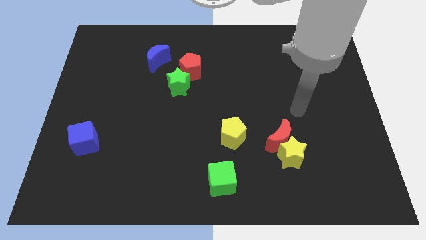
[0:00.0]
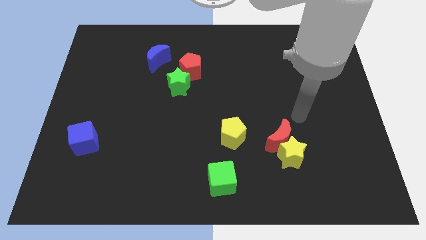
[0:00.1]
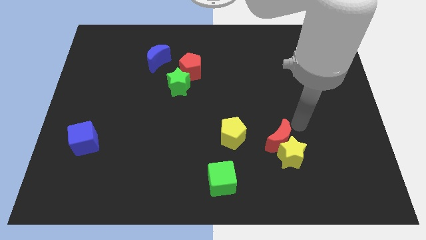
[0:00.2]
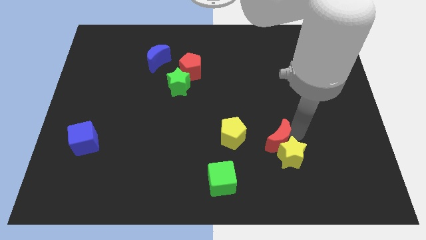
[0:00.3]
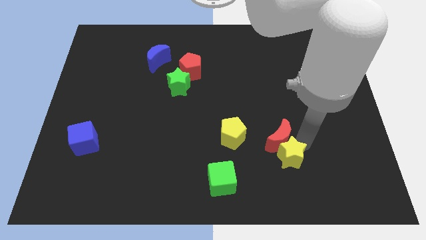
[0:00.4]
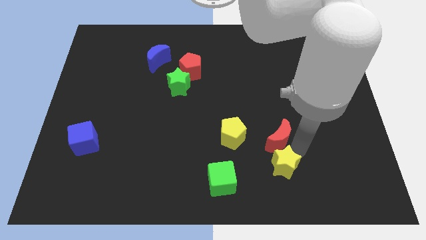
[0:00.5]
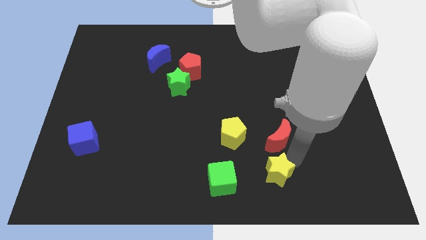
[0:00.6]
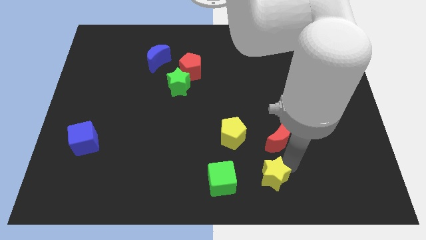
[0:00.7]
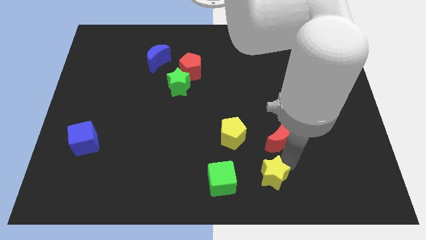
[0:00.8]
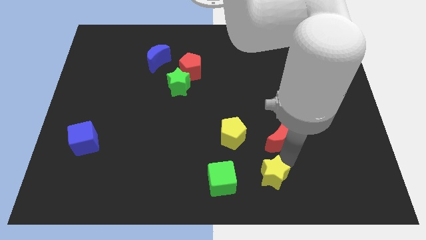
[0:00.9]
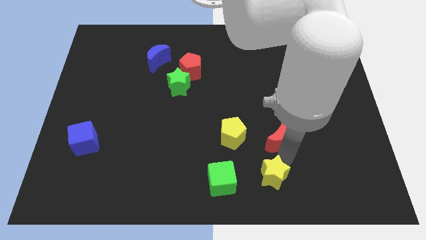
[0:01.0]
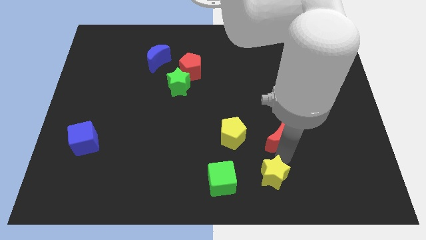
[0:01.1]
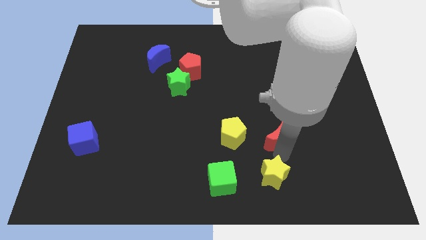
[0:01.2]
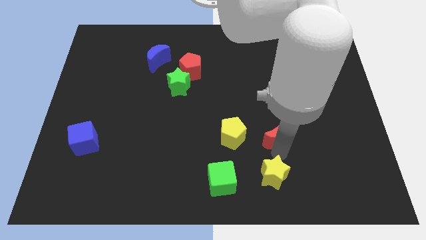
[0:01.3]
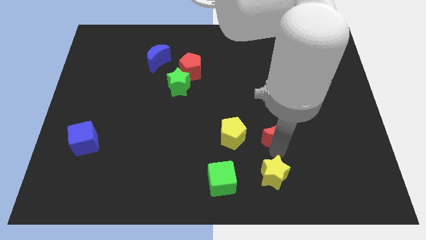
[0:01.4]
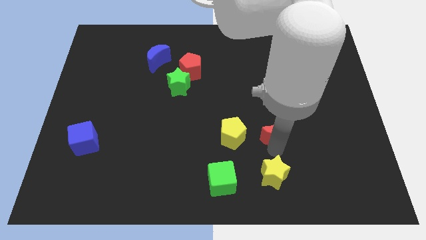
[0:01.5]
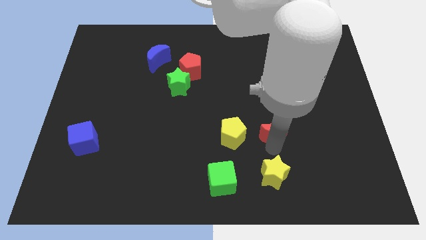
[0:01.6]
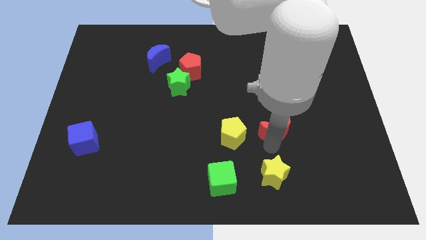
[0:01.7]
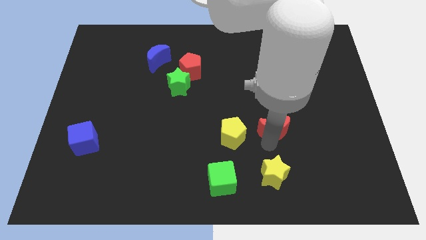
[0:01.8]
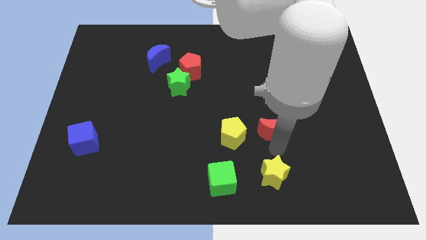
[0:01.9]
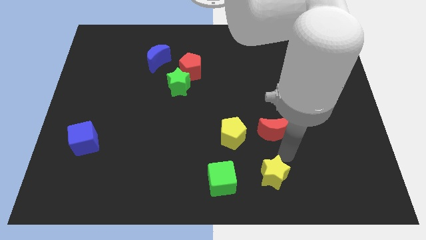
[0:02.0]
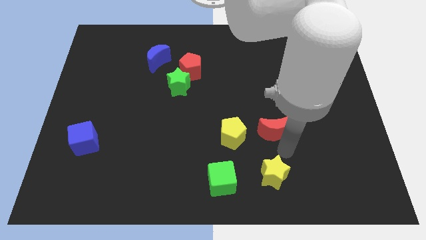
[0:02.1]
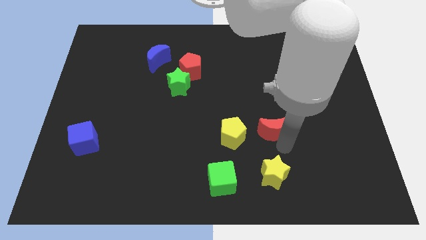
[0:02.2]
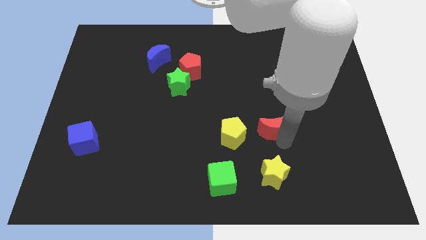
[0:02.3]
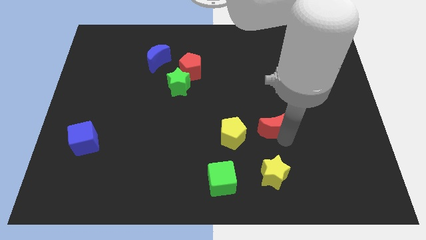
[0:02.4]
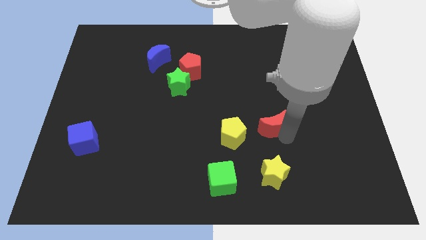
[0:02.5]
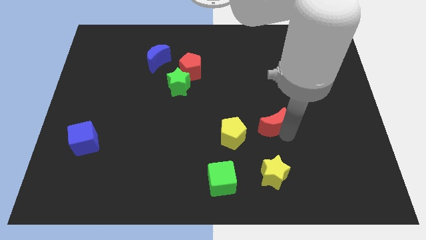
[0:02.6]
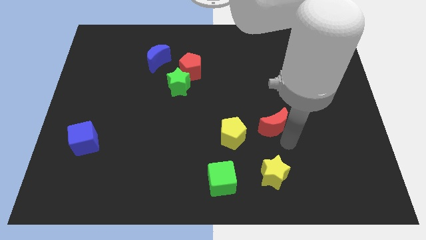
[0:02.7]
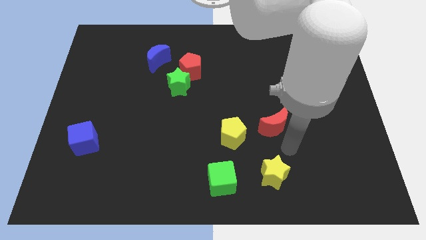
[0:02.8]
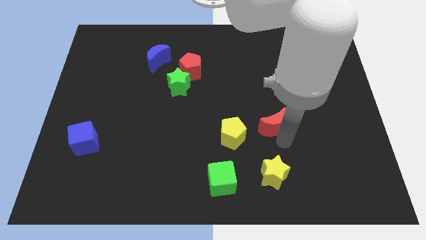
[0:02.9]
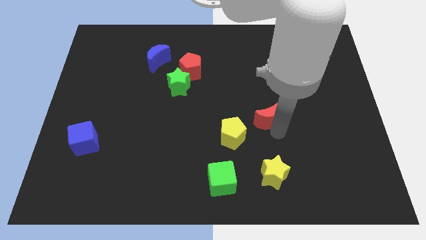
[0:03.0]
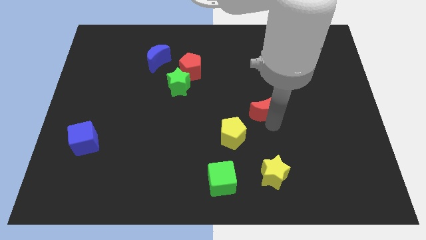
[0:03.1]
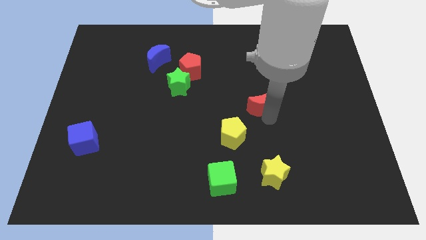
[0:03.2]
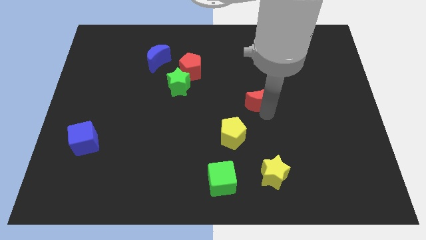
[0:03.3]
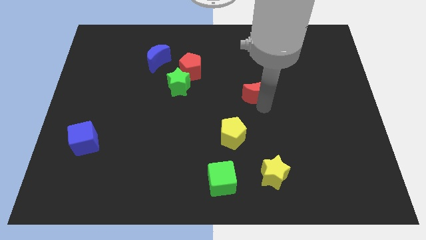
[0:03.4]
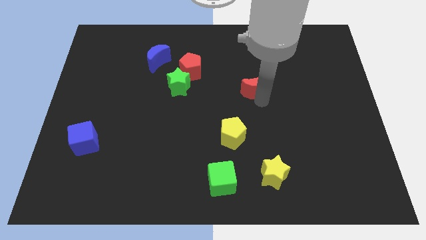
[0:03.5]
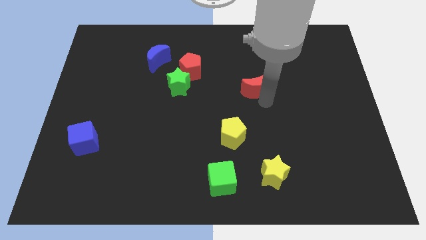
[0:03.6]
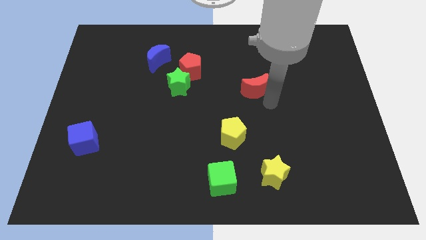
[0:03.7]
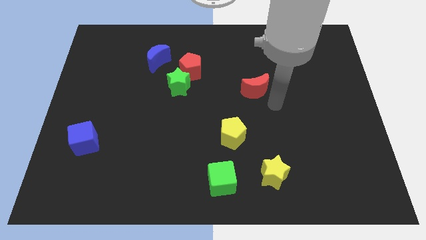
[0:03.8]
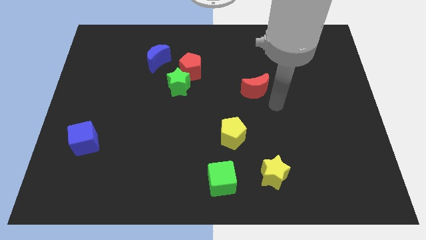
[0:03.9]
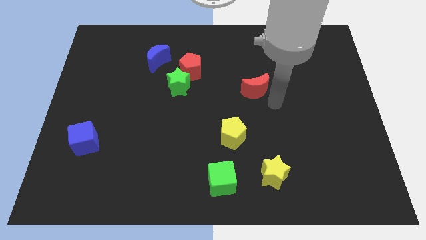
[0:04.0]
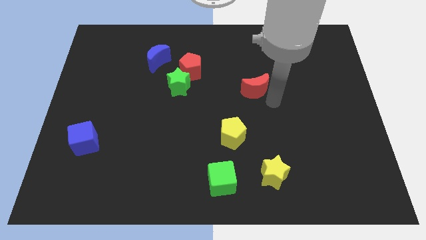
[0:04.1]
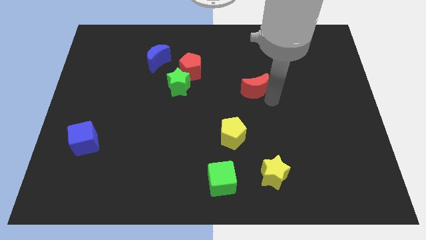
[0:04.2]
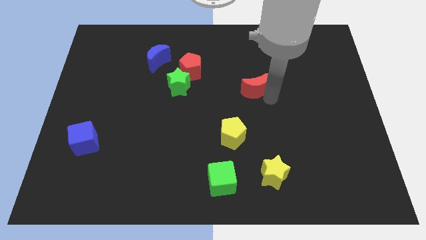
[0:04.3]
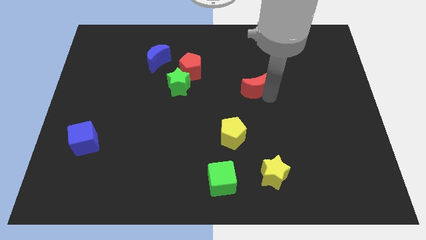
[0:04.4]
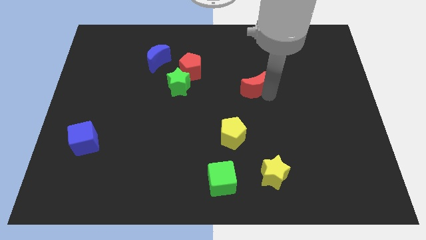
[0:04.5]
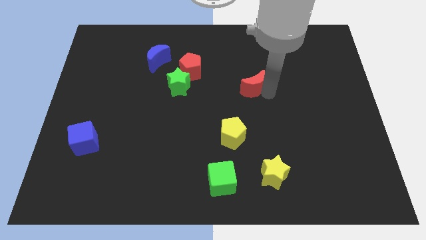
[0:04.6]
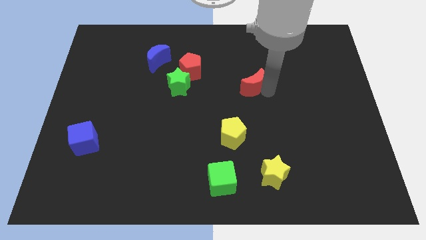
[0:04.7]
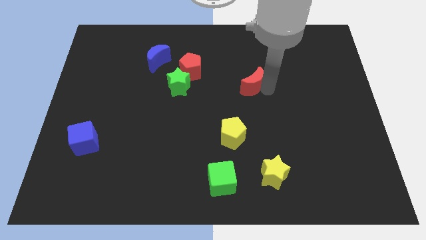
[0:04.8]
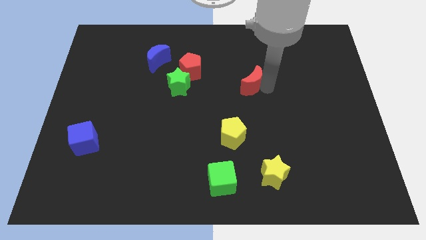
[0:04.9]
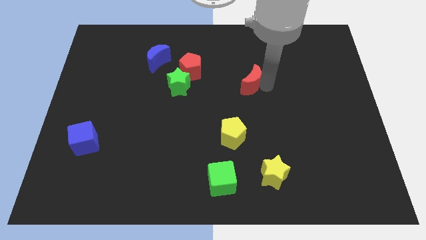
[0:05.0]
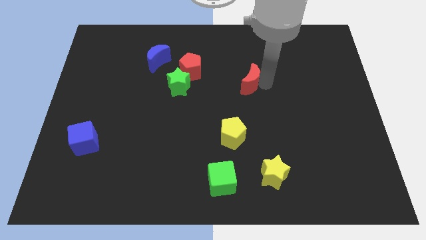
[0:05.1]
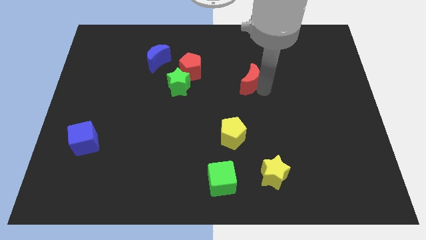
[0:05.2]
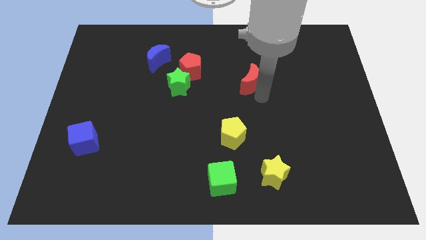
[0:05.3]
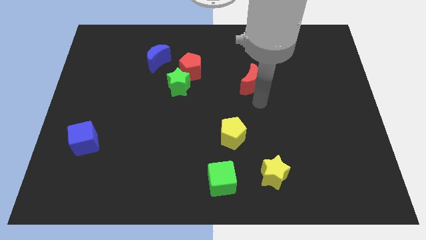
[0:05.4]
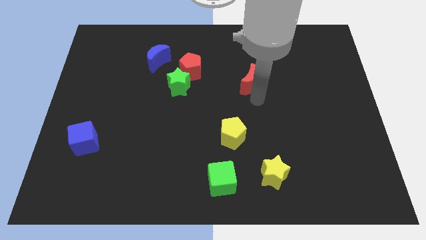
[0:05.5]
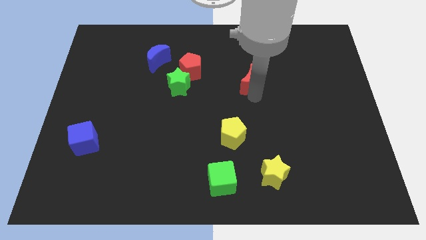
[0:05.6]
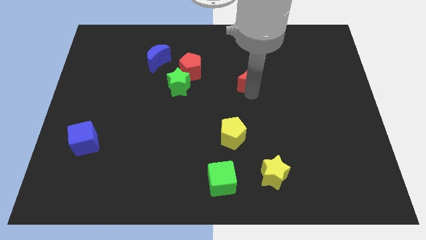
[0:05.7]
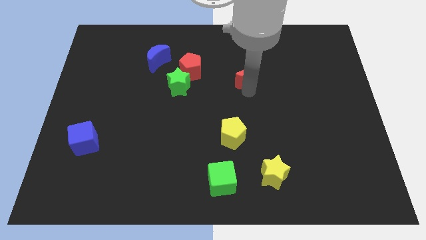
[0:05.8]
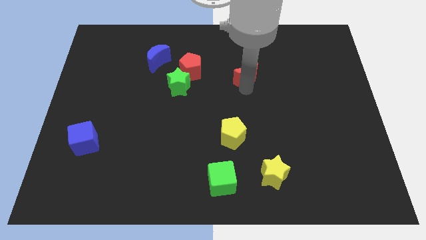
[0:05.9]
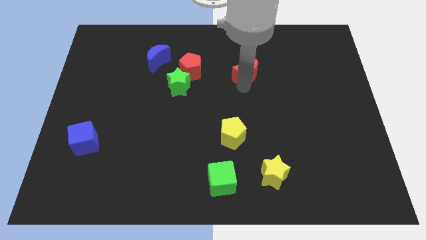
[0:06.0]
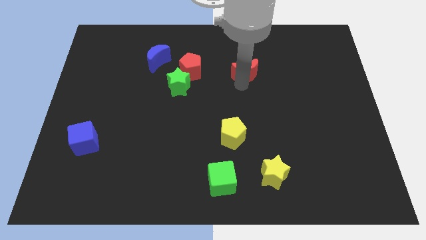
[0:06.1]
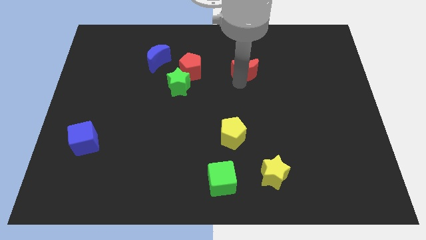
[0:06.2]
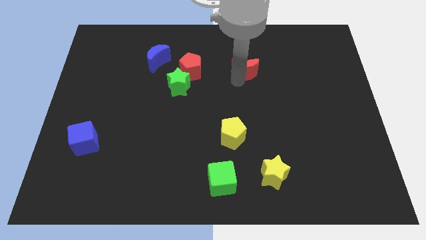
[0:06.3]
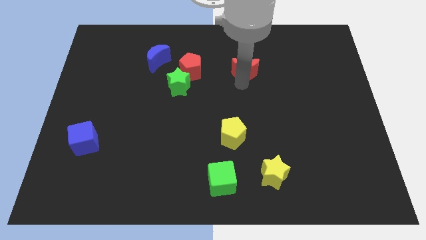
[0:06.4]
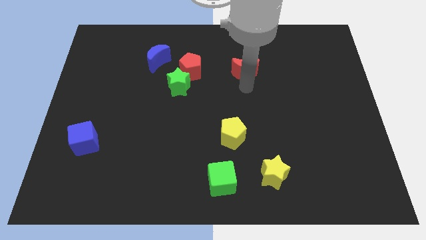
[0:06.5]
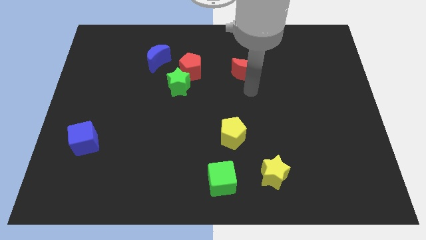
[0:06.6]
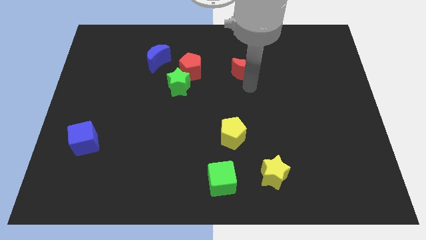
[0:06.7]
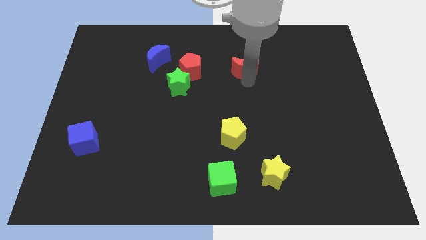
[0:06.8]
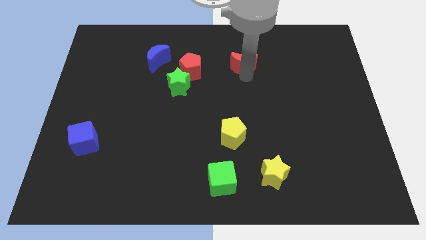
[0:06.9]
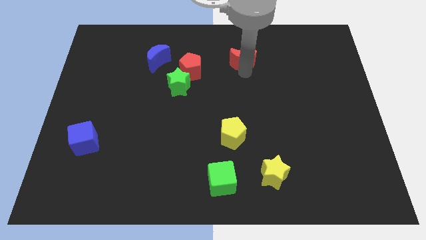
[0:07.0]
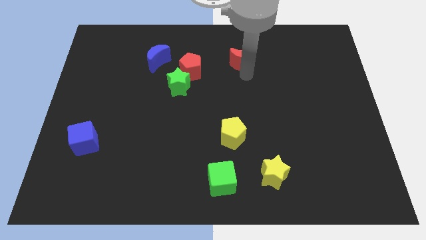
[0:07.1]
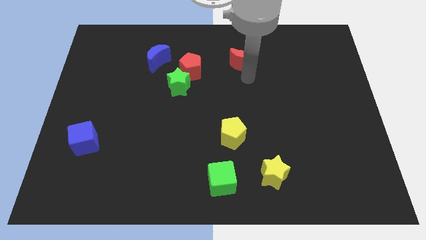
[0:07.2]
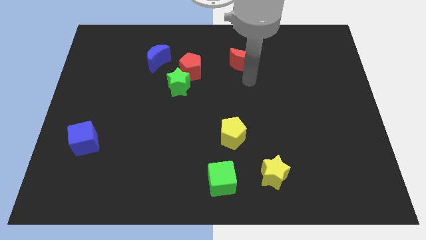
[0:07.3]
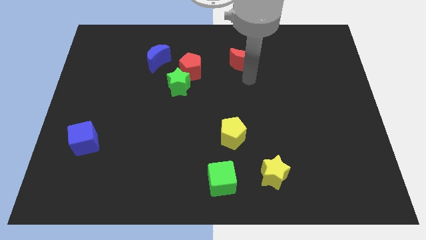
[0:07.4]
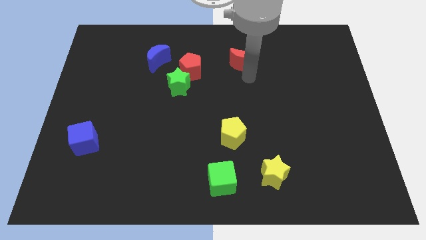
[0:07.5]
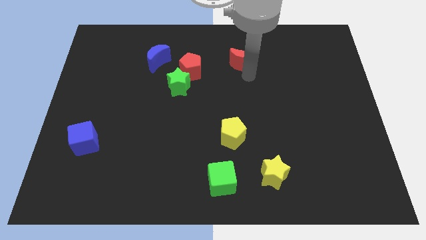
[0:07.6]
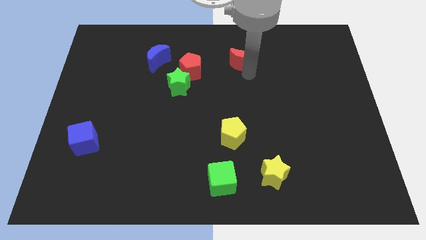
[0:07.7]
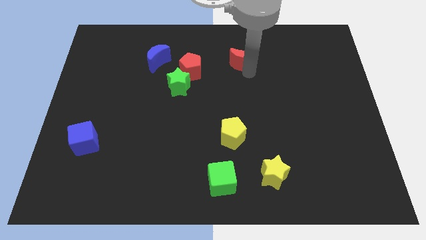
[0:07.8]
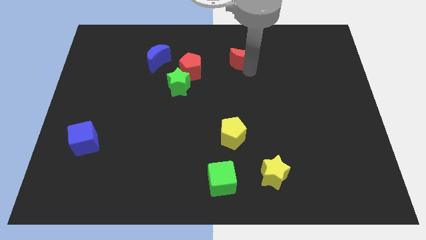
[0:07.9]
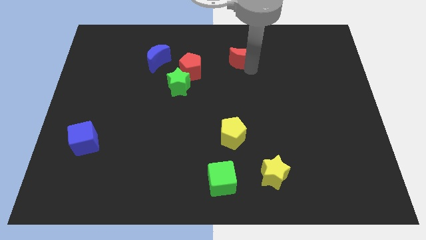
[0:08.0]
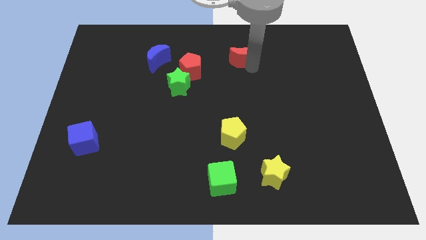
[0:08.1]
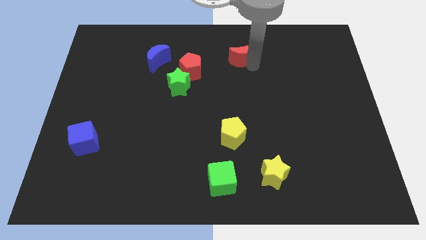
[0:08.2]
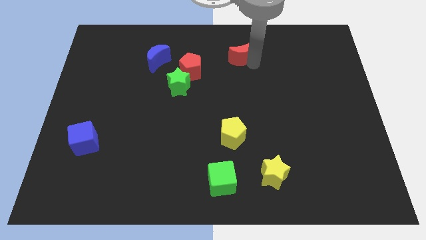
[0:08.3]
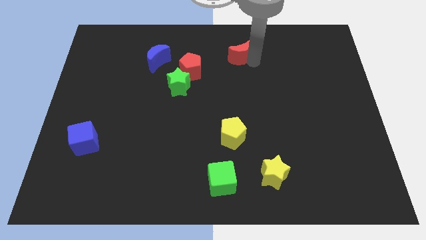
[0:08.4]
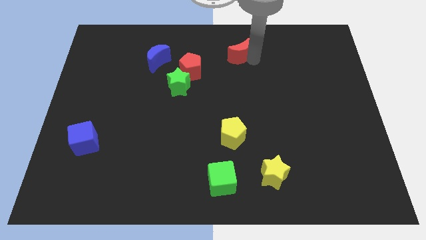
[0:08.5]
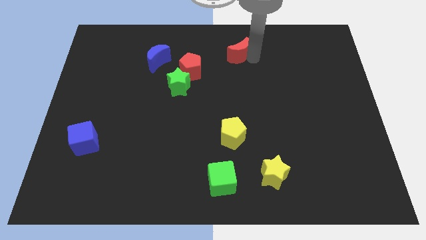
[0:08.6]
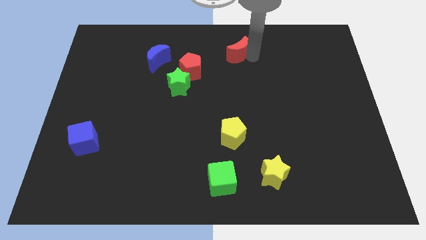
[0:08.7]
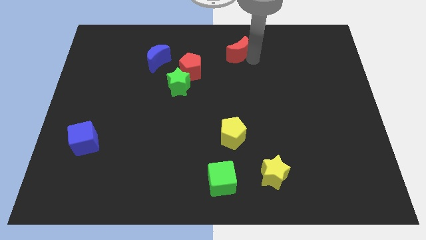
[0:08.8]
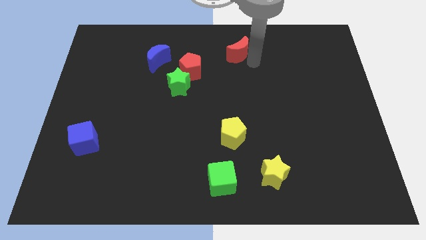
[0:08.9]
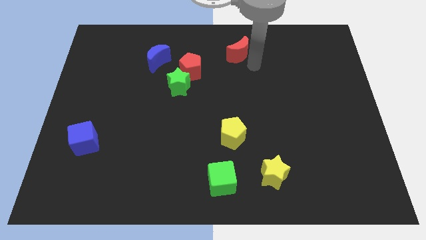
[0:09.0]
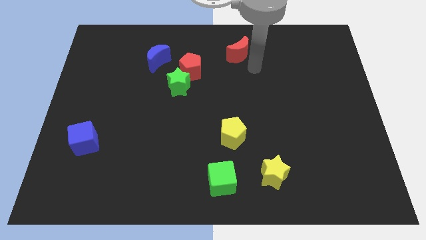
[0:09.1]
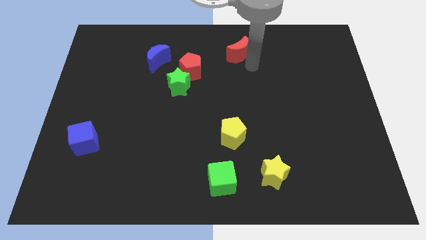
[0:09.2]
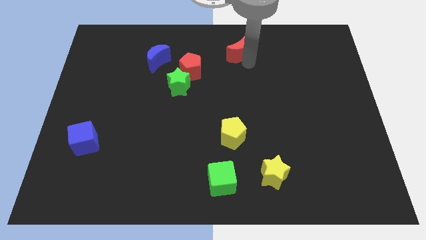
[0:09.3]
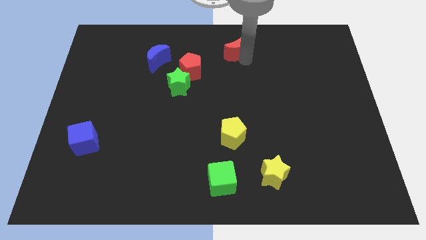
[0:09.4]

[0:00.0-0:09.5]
push the red moon to the towards your base
